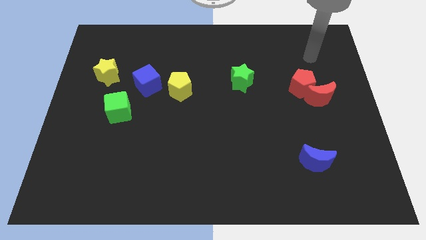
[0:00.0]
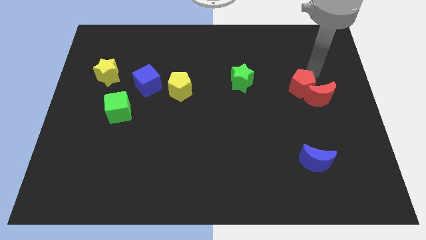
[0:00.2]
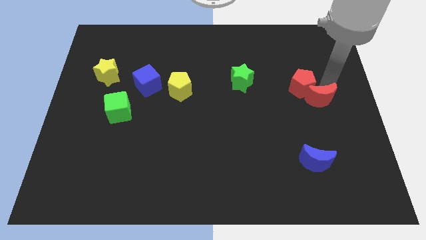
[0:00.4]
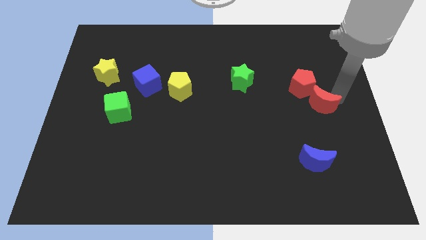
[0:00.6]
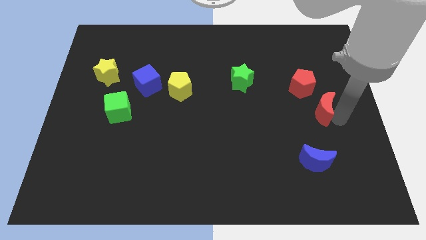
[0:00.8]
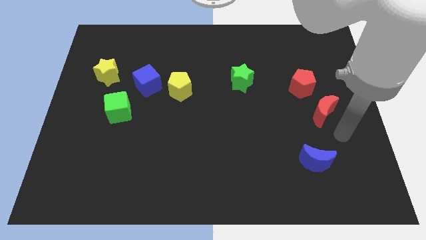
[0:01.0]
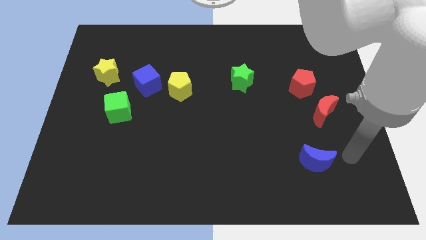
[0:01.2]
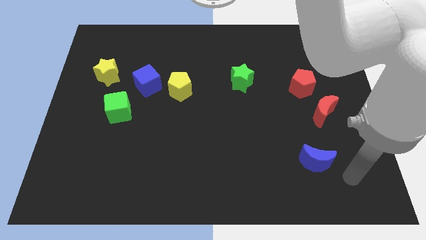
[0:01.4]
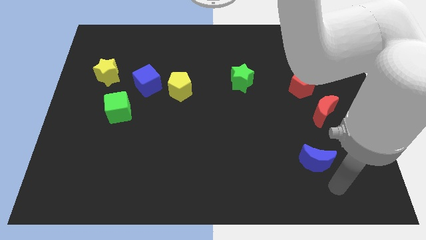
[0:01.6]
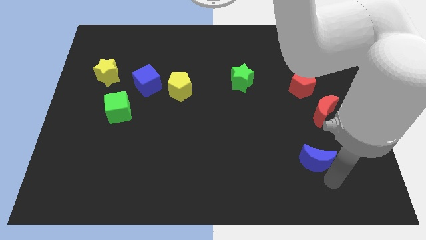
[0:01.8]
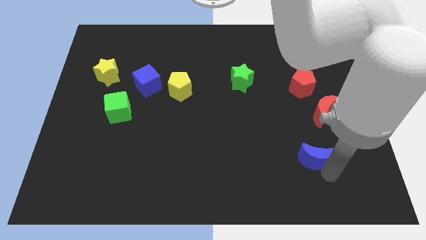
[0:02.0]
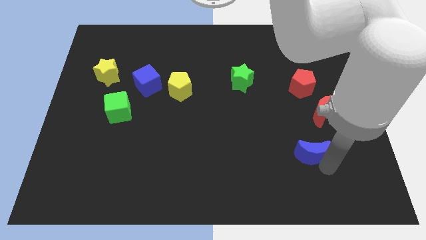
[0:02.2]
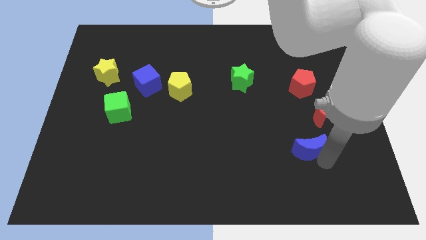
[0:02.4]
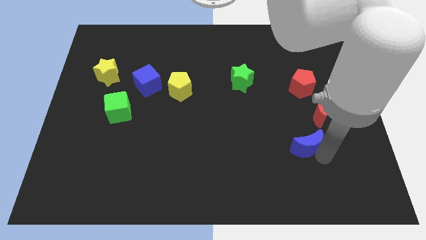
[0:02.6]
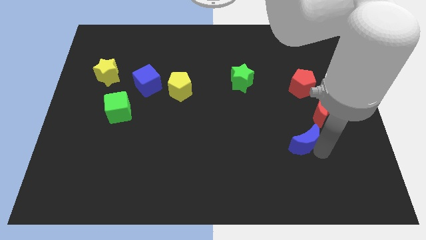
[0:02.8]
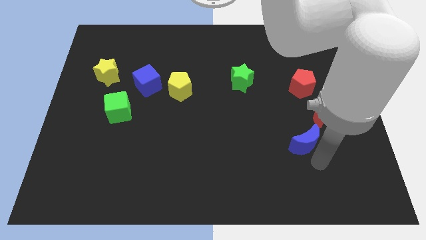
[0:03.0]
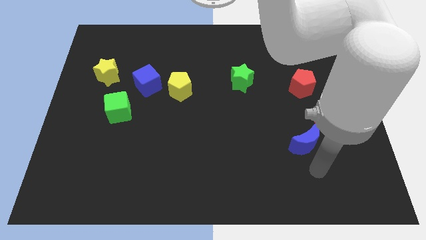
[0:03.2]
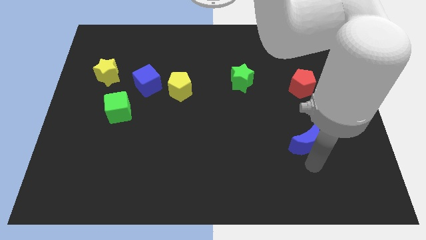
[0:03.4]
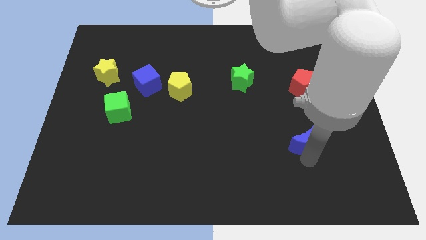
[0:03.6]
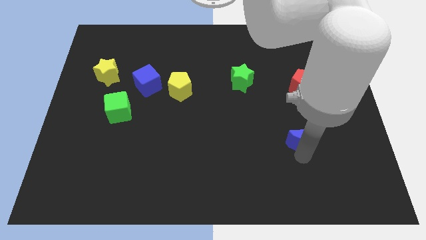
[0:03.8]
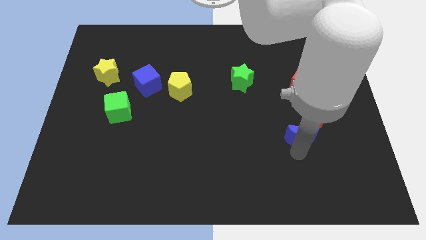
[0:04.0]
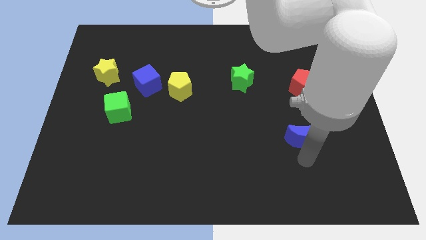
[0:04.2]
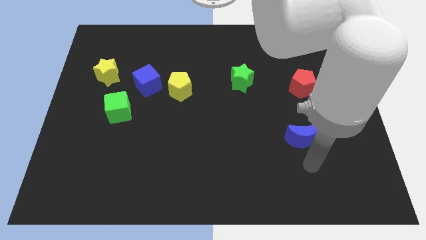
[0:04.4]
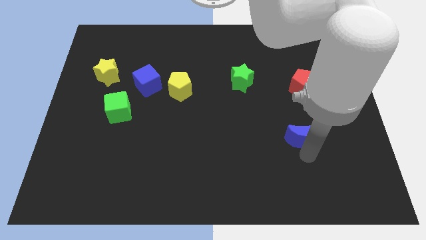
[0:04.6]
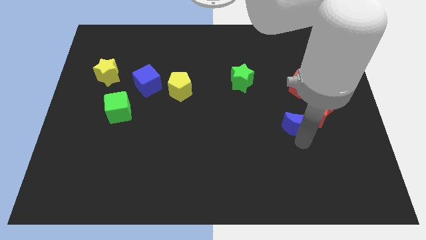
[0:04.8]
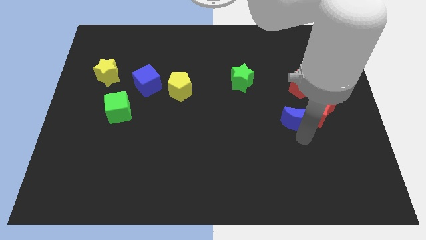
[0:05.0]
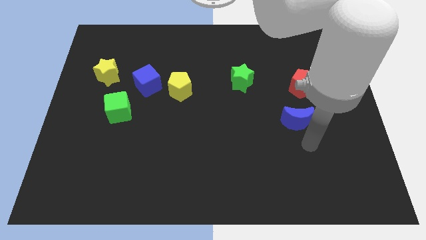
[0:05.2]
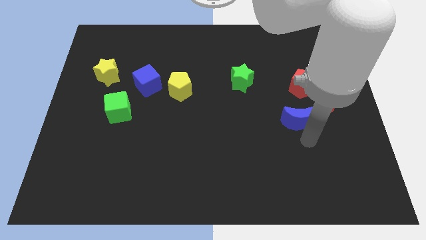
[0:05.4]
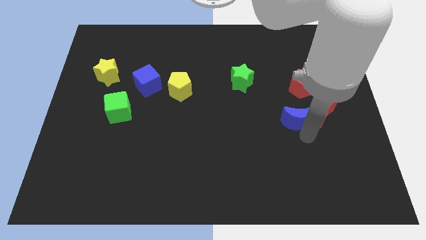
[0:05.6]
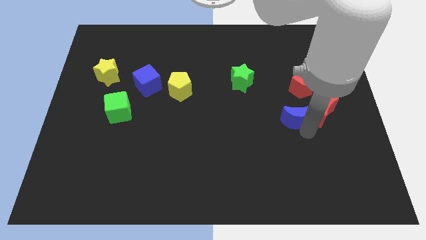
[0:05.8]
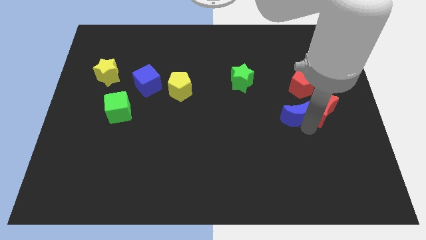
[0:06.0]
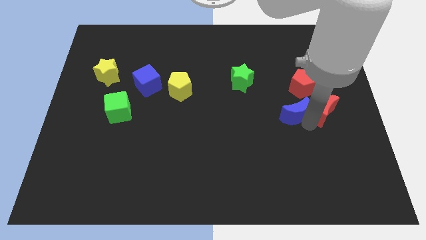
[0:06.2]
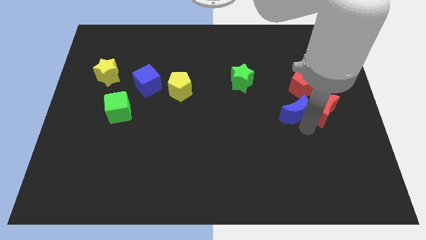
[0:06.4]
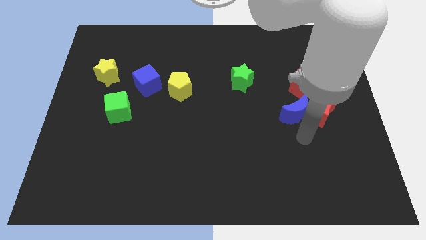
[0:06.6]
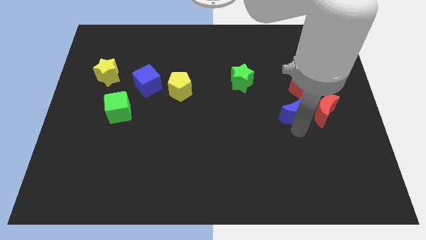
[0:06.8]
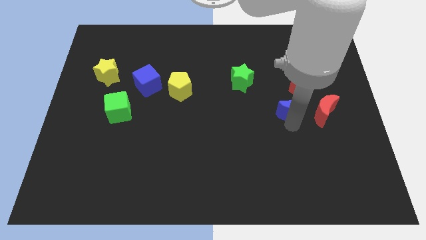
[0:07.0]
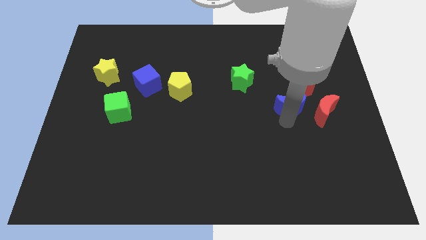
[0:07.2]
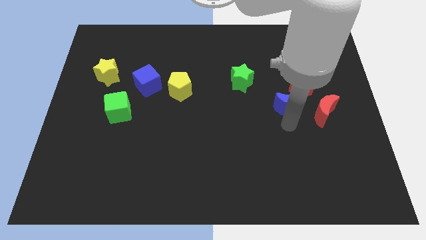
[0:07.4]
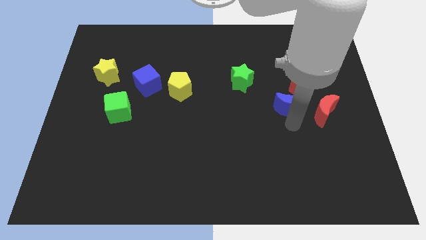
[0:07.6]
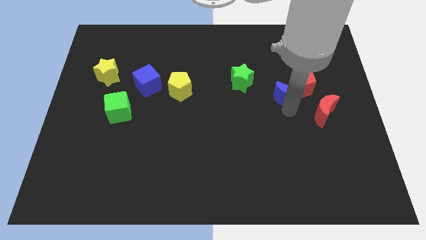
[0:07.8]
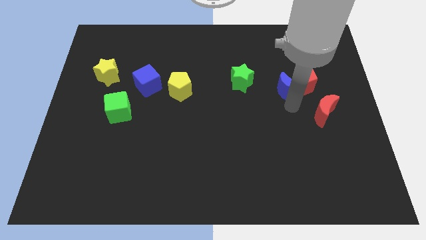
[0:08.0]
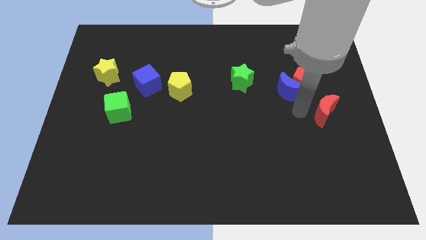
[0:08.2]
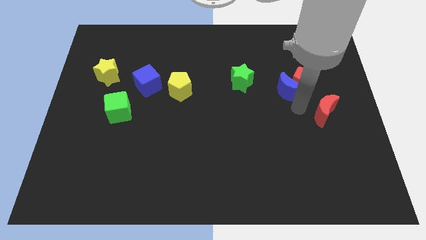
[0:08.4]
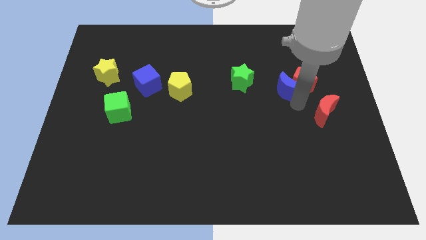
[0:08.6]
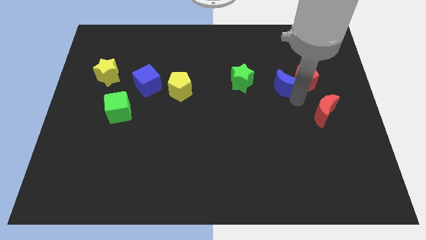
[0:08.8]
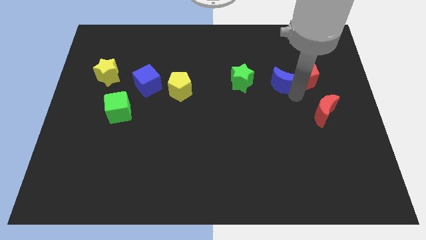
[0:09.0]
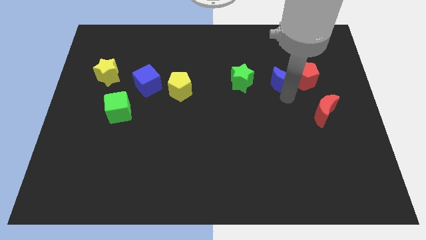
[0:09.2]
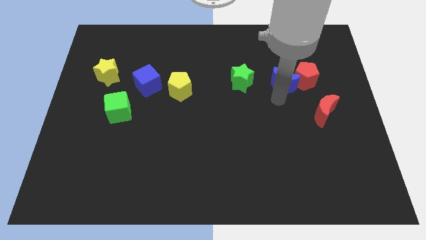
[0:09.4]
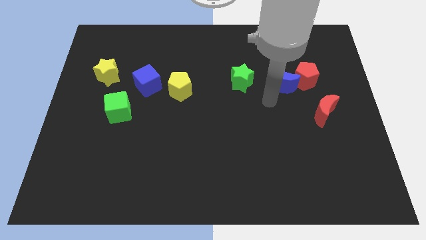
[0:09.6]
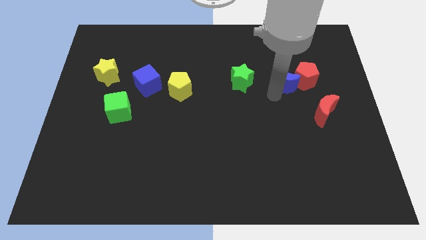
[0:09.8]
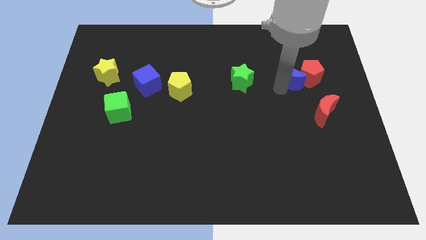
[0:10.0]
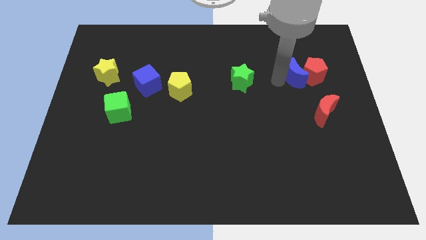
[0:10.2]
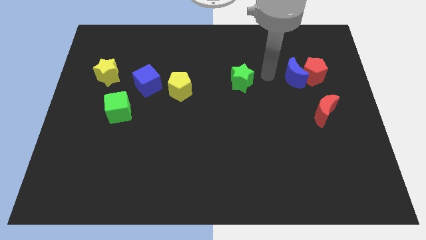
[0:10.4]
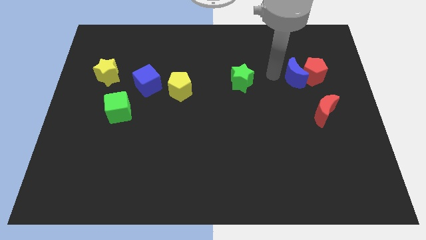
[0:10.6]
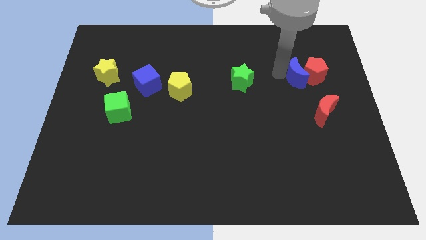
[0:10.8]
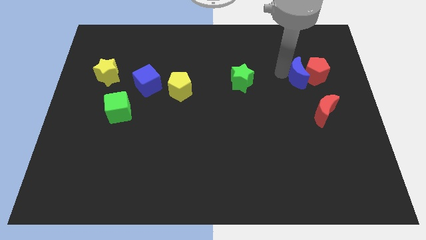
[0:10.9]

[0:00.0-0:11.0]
push the blue moon to the top of the red moon
